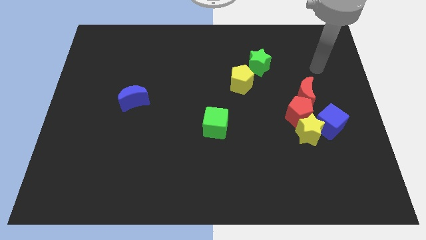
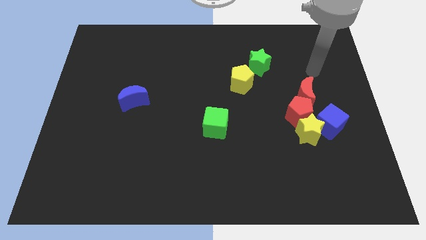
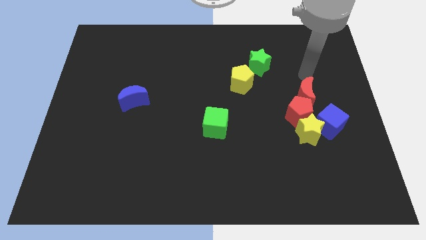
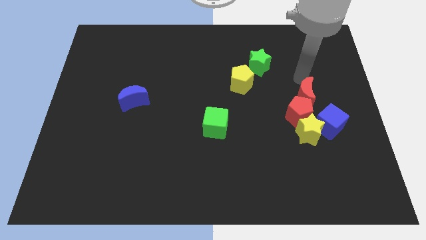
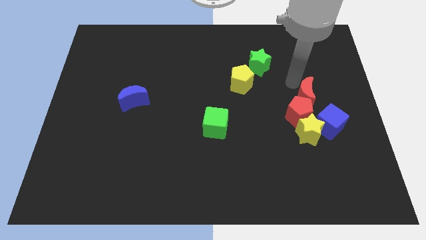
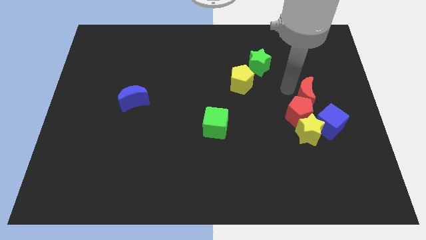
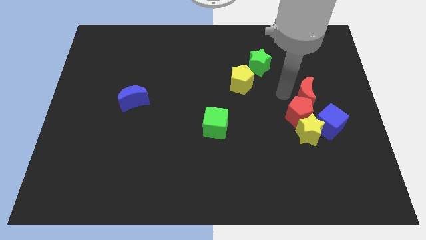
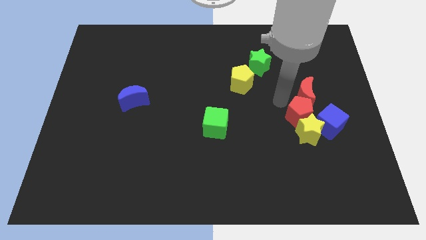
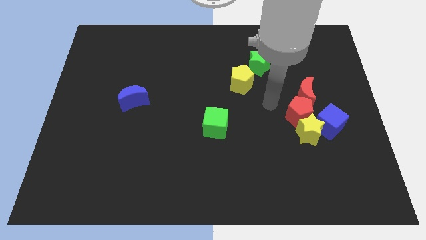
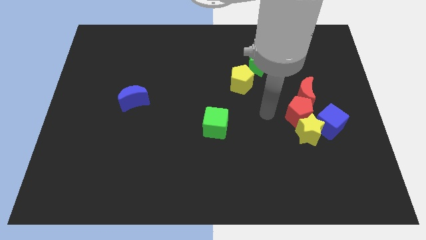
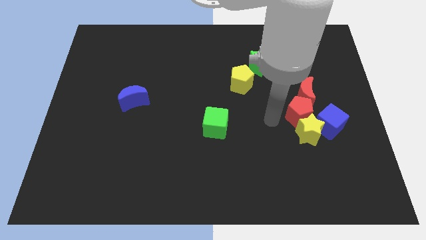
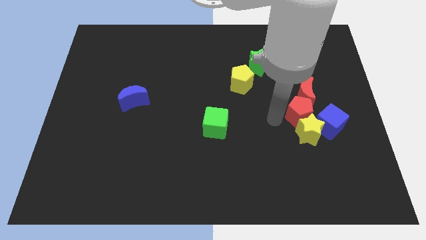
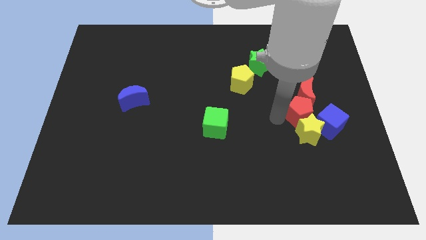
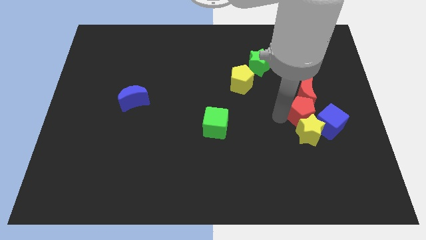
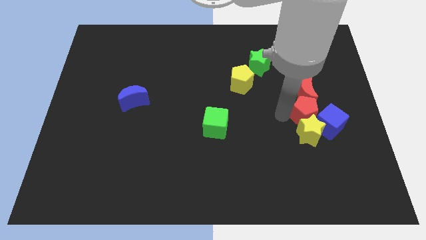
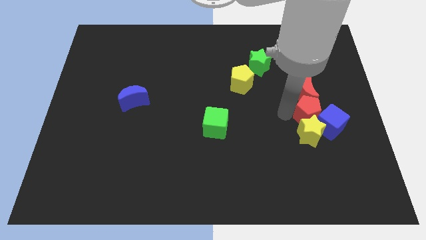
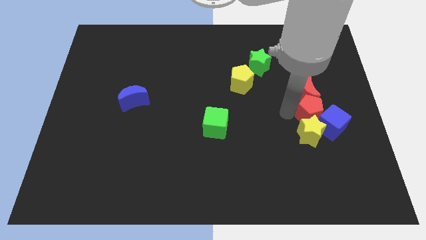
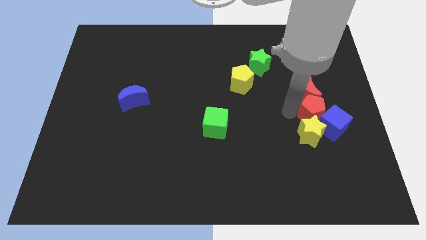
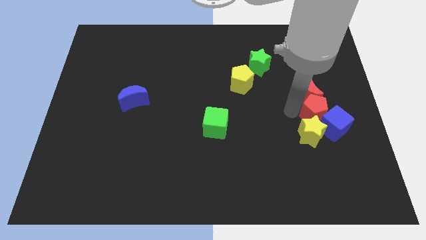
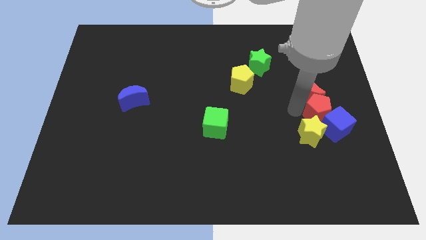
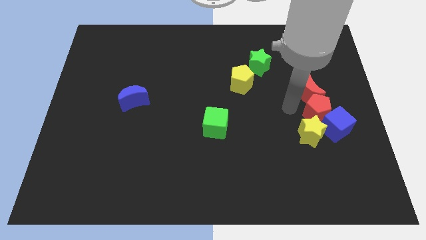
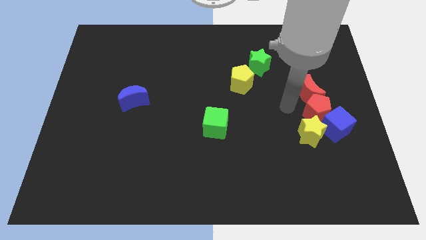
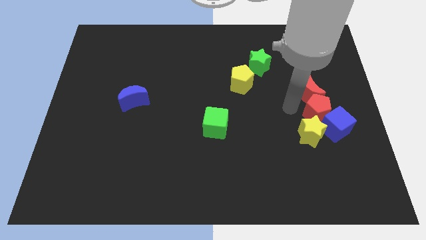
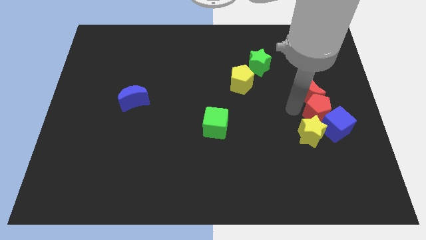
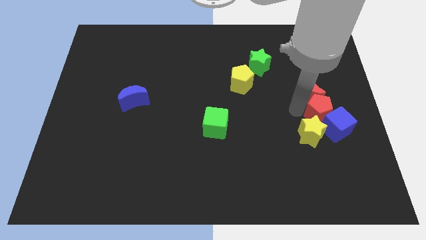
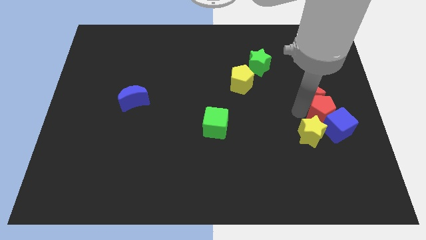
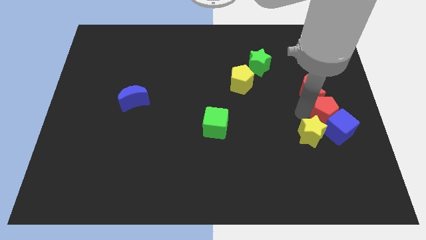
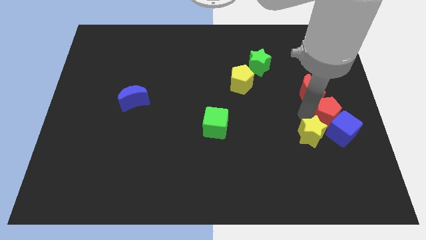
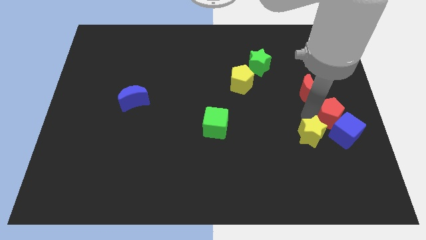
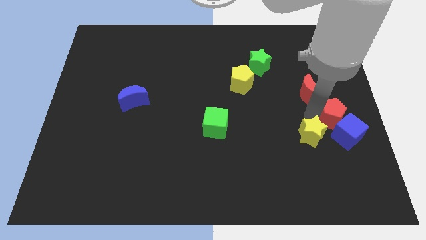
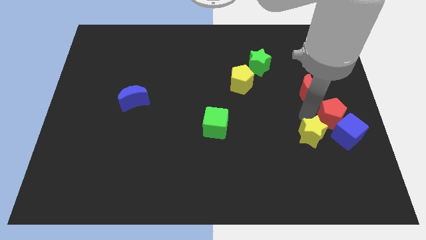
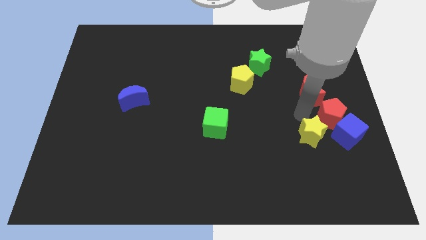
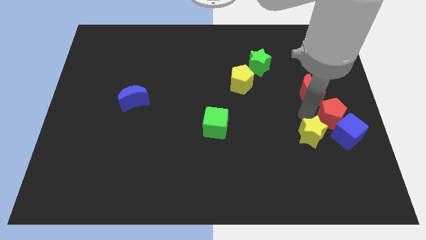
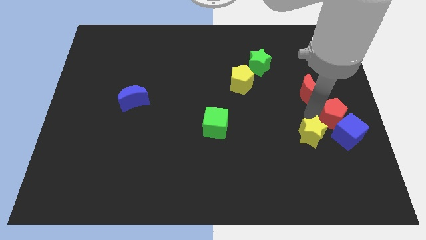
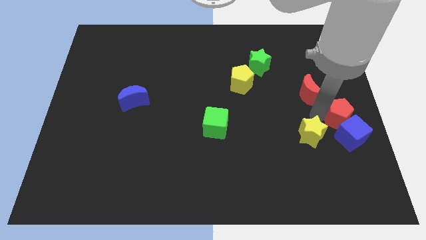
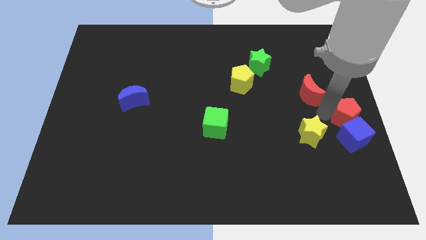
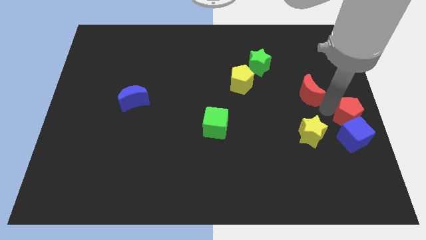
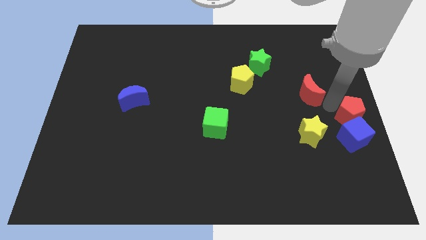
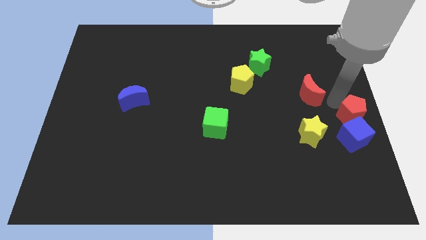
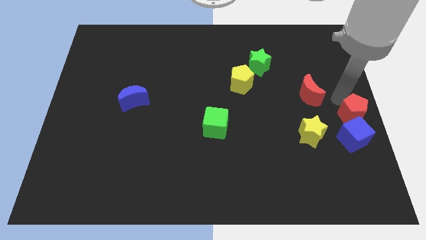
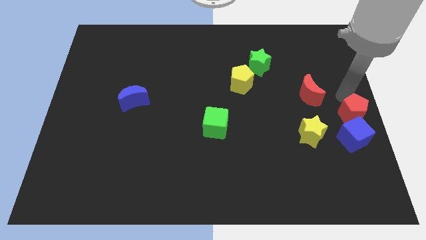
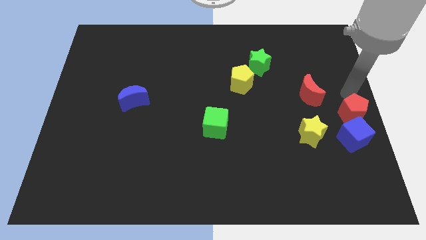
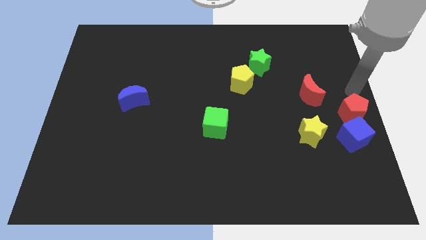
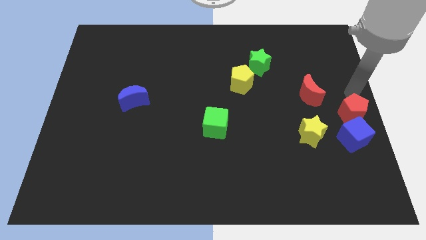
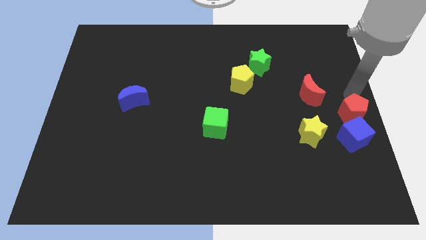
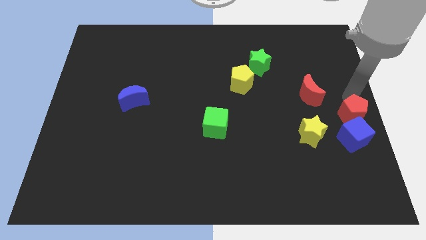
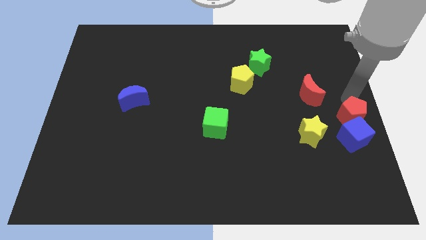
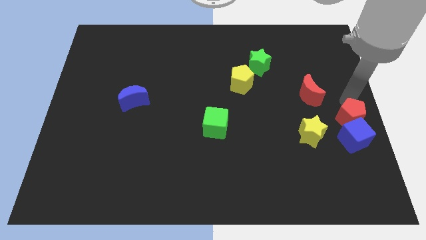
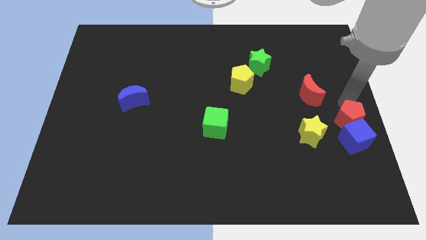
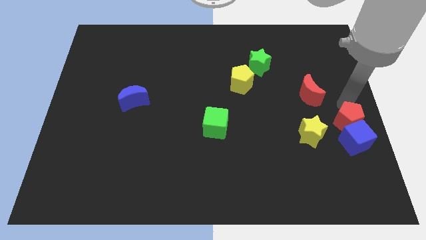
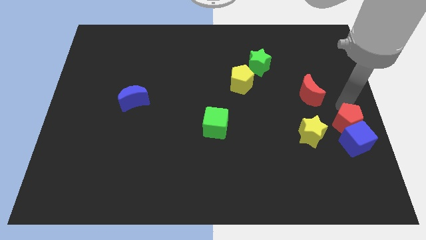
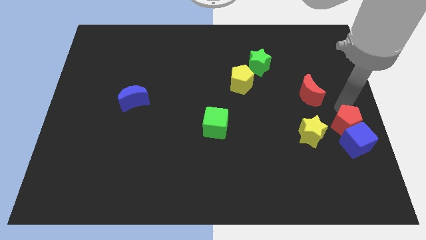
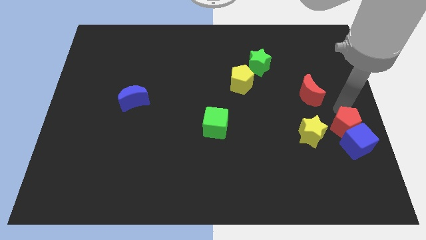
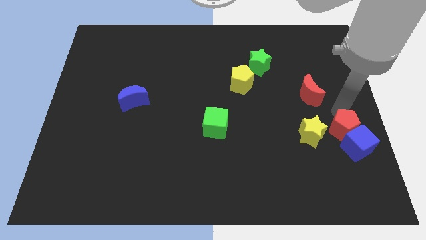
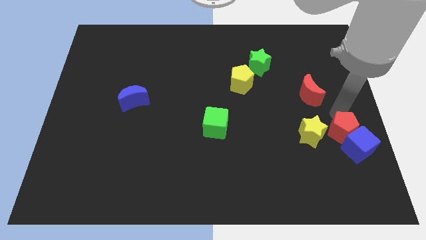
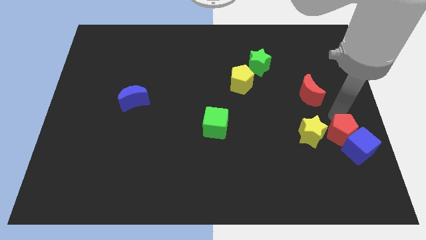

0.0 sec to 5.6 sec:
move the red pentagon to the bottom right of the yellow star

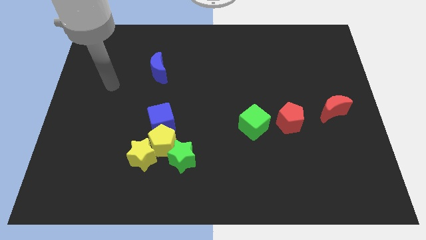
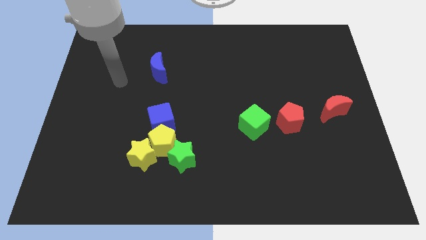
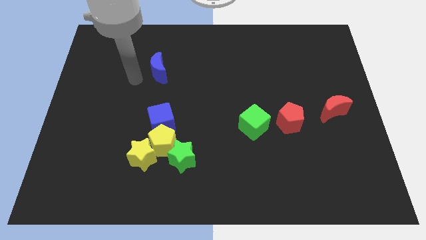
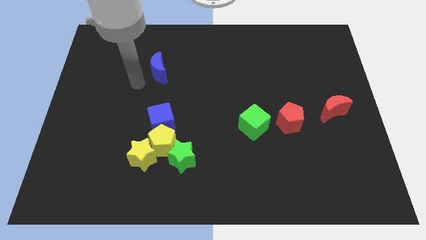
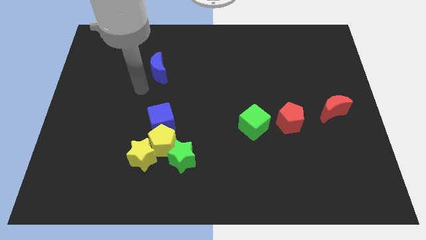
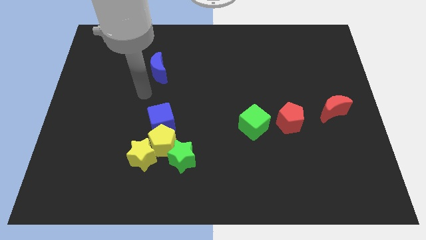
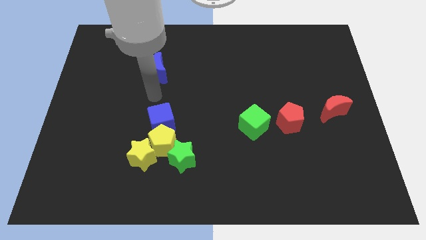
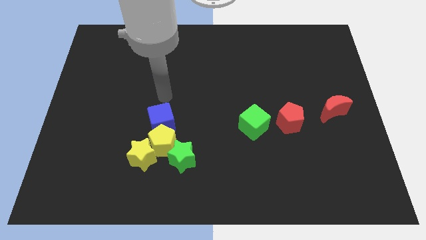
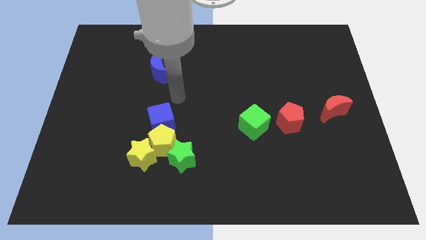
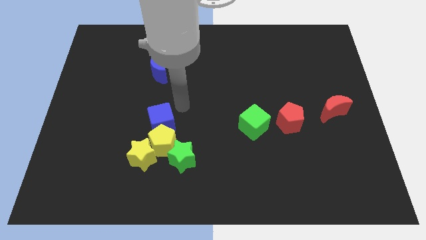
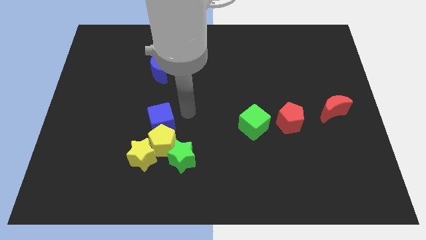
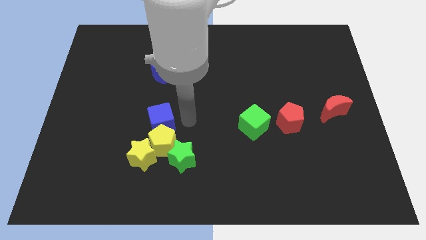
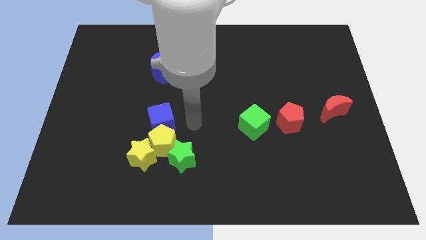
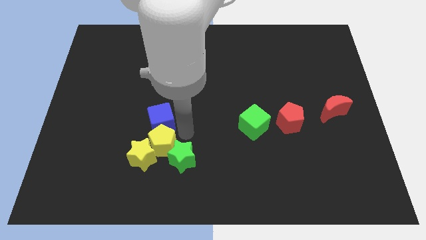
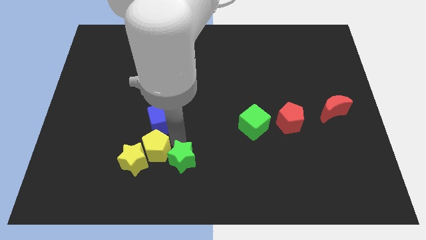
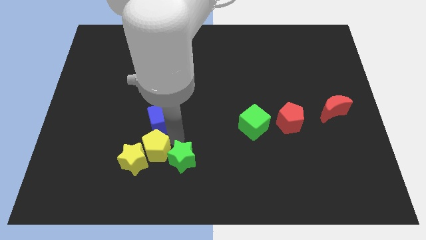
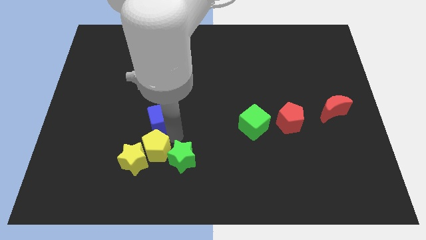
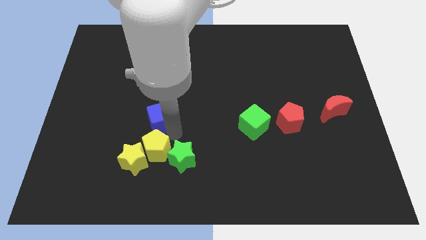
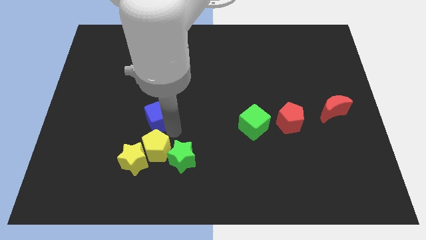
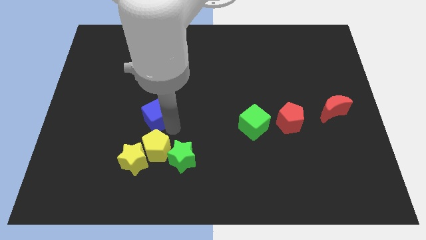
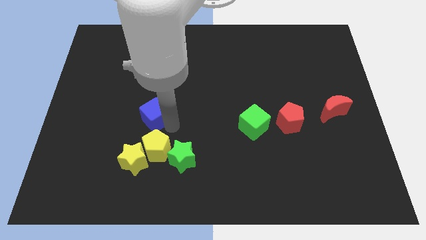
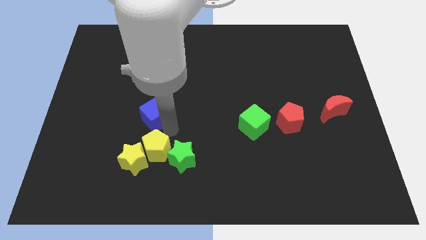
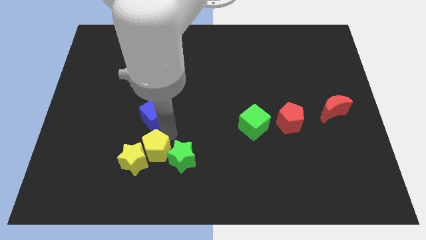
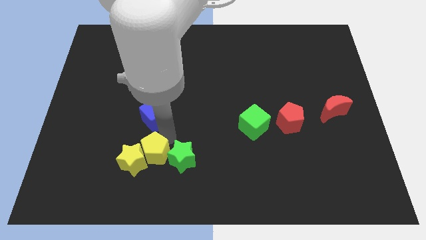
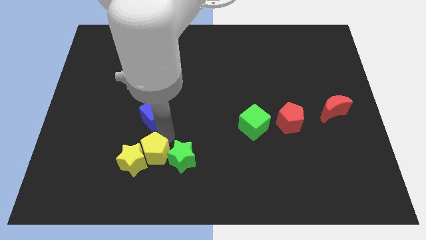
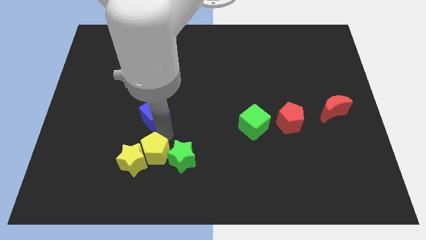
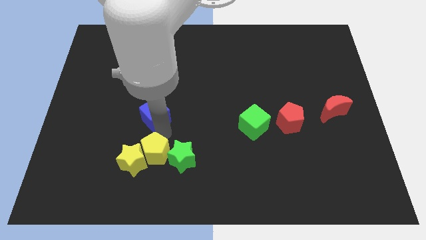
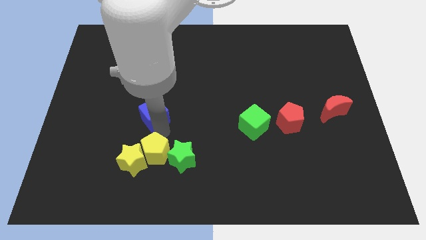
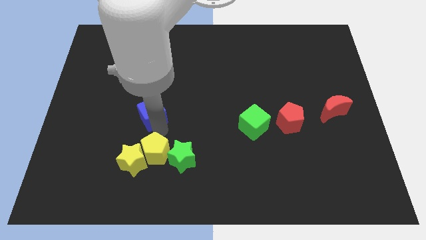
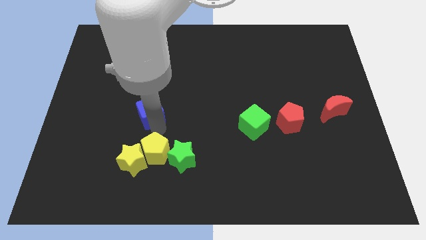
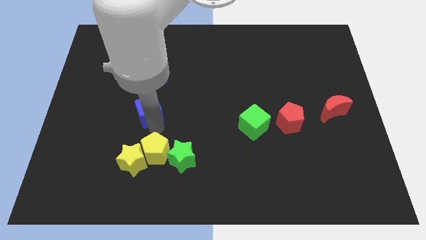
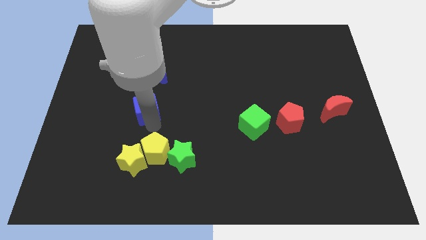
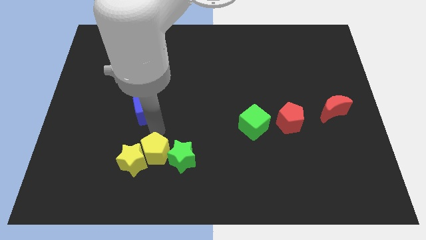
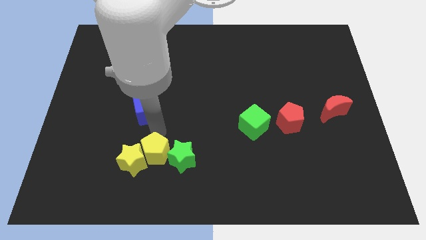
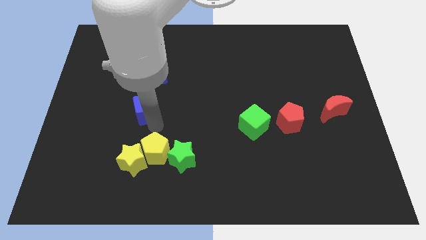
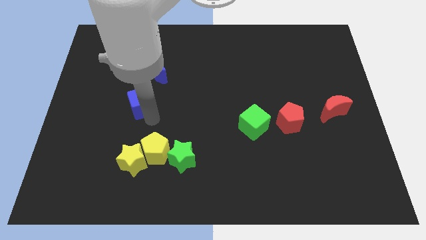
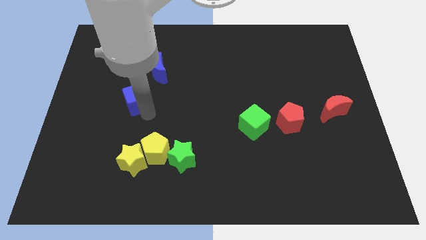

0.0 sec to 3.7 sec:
put the blue cube to the bottom left side of the blue moon
